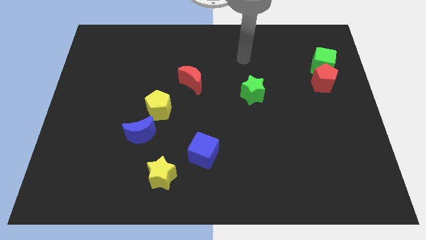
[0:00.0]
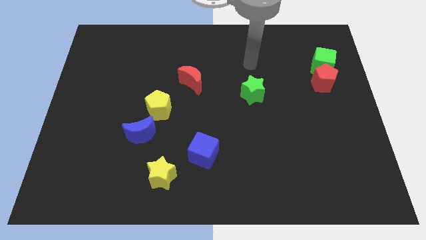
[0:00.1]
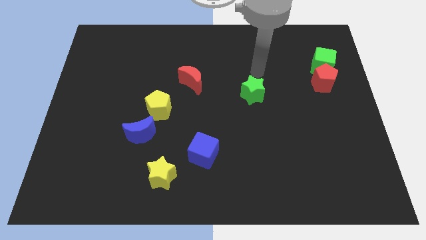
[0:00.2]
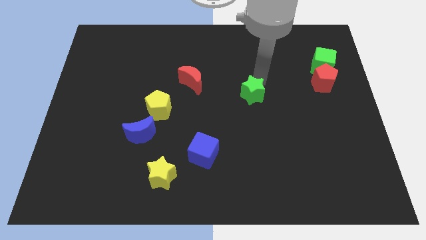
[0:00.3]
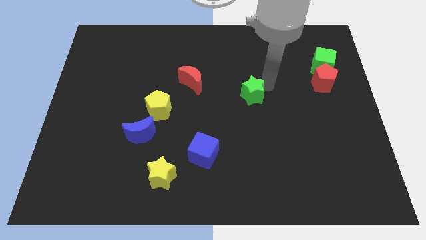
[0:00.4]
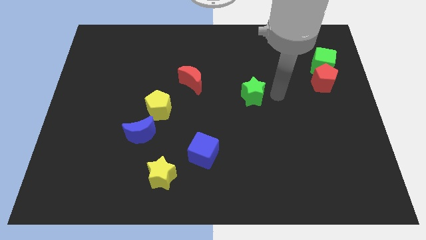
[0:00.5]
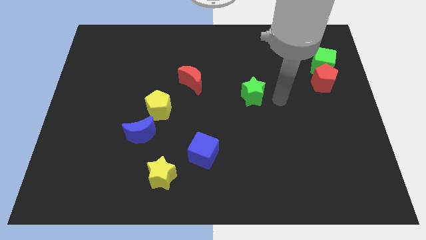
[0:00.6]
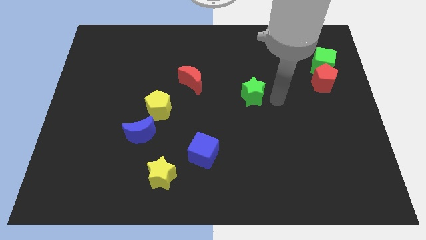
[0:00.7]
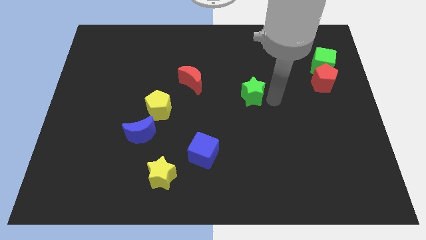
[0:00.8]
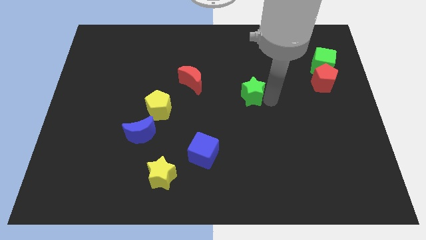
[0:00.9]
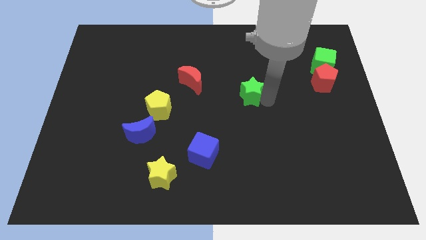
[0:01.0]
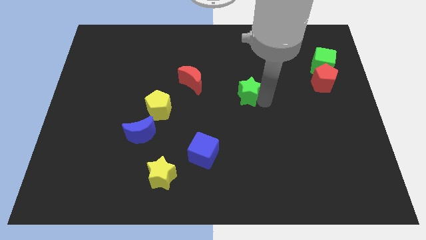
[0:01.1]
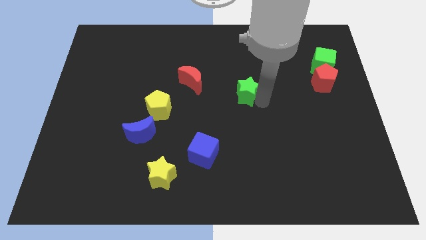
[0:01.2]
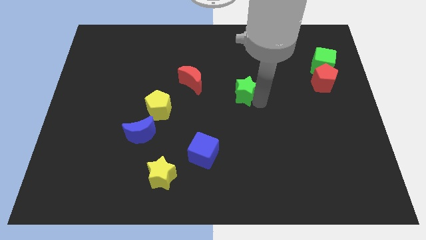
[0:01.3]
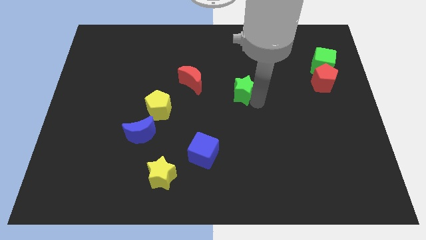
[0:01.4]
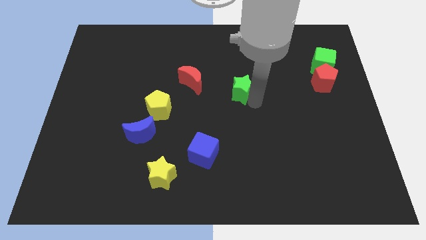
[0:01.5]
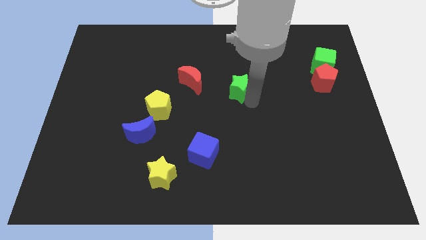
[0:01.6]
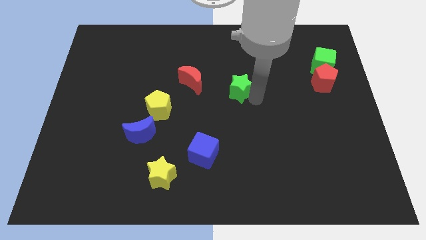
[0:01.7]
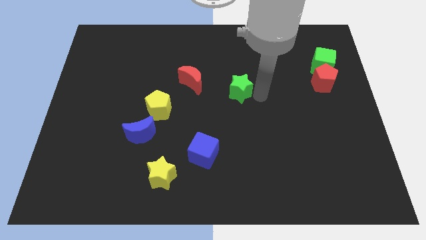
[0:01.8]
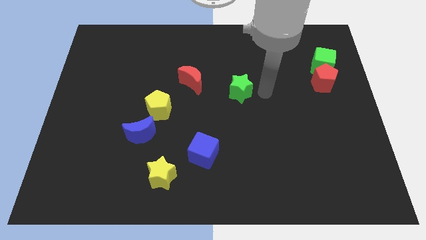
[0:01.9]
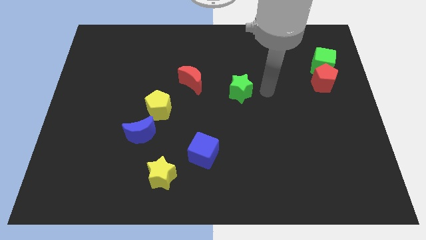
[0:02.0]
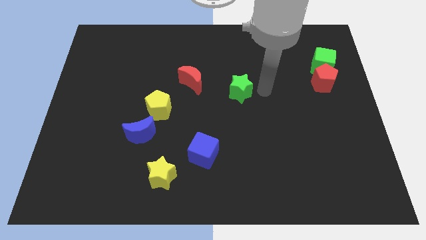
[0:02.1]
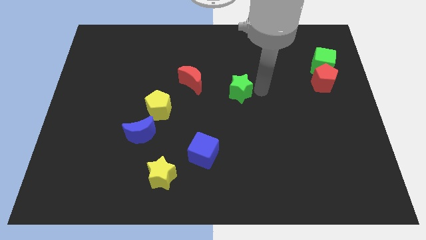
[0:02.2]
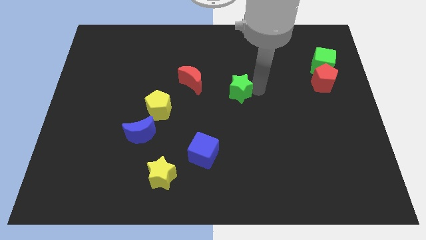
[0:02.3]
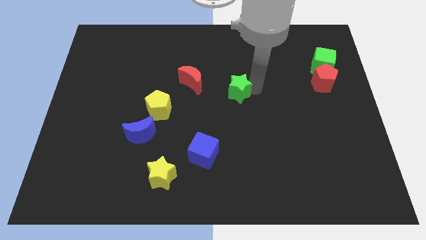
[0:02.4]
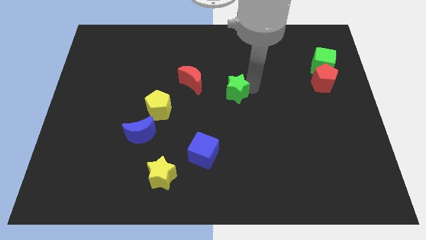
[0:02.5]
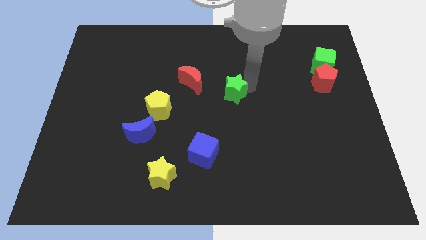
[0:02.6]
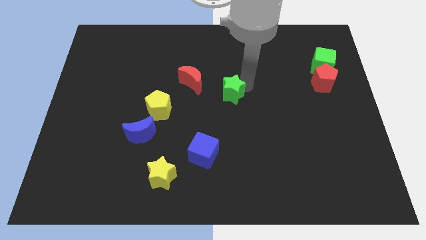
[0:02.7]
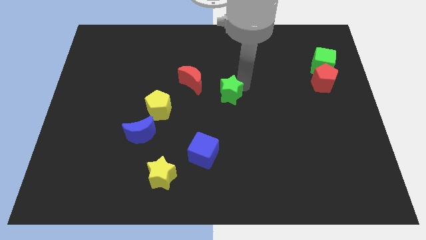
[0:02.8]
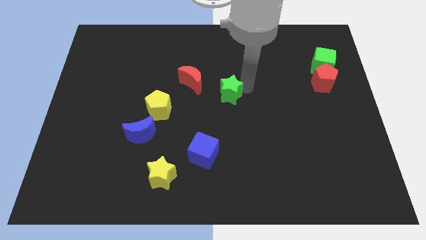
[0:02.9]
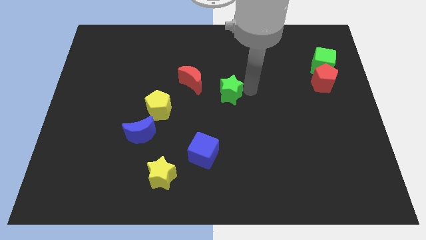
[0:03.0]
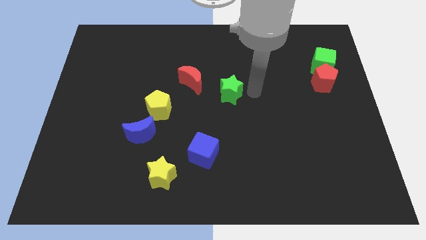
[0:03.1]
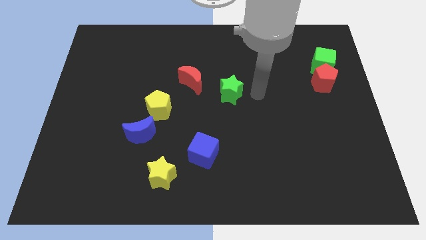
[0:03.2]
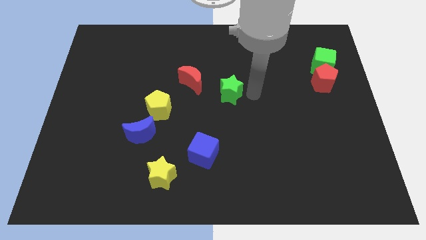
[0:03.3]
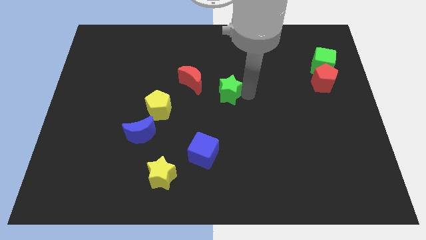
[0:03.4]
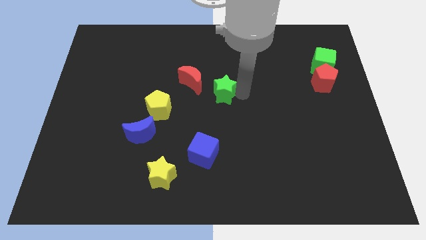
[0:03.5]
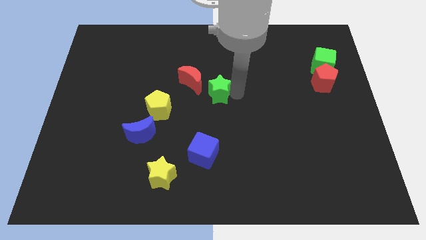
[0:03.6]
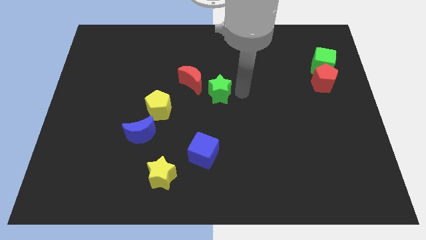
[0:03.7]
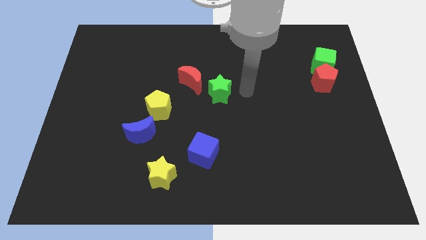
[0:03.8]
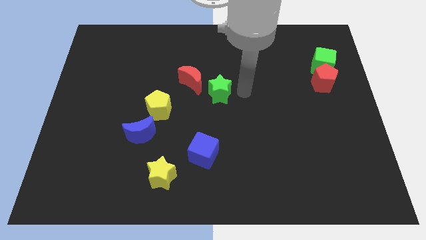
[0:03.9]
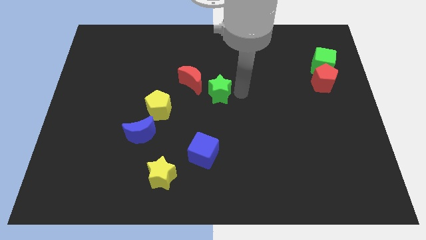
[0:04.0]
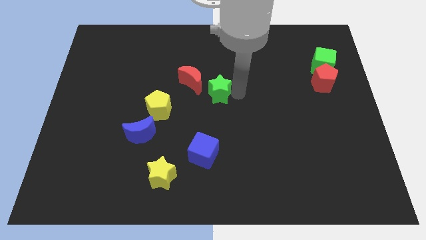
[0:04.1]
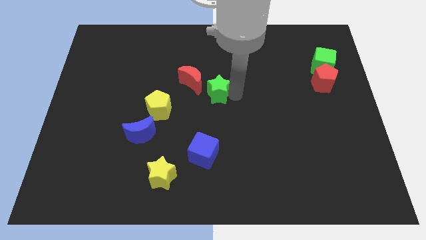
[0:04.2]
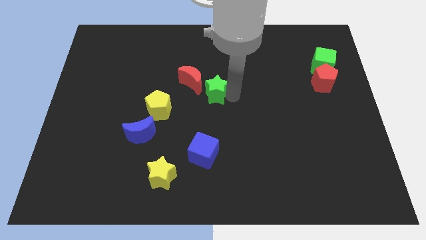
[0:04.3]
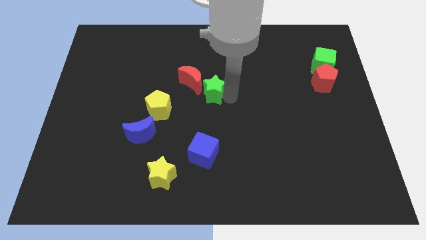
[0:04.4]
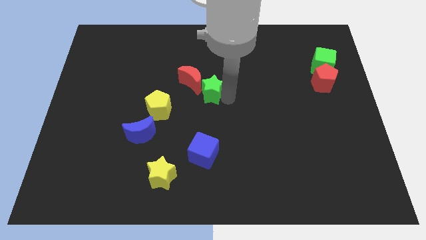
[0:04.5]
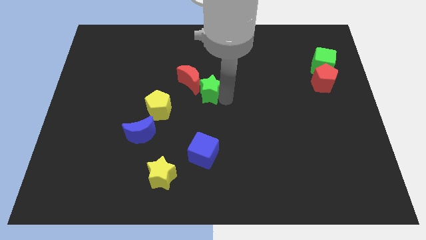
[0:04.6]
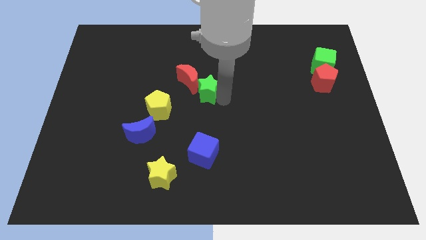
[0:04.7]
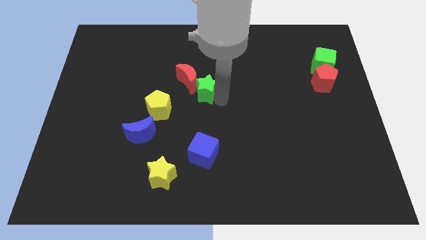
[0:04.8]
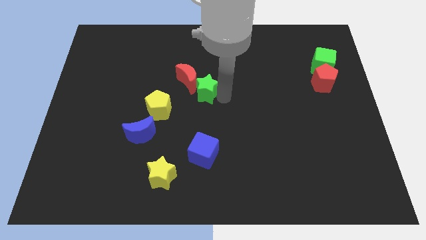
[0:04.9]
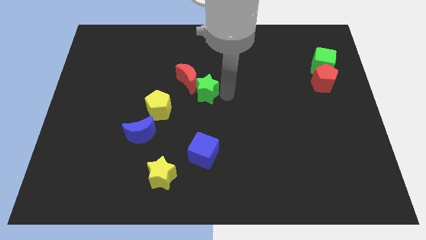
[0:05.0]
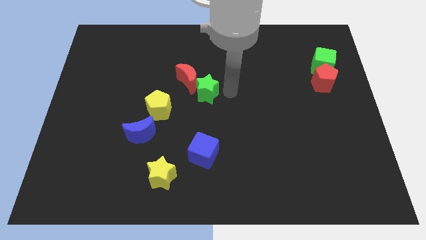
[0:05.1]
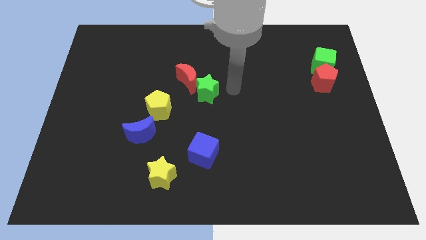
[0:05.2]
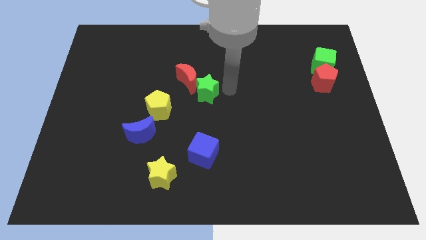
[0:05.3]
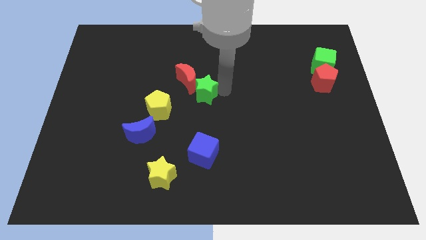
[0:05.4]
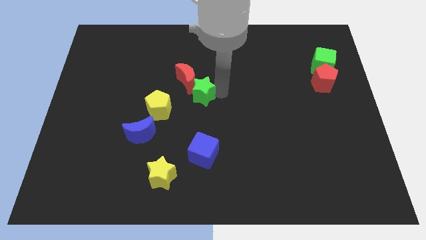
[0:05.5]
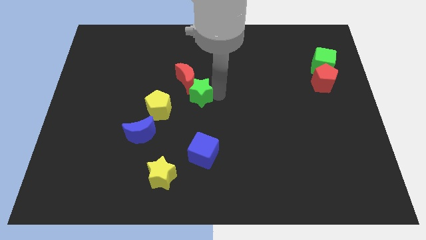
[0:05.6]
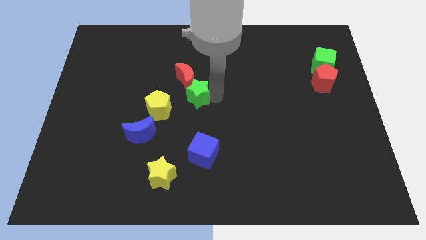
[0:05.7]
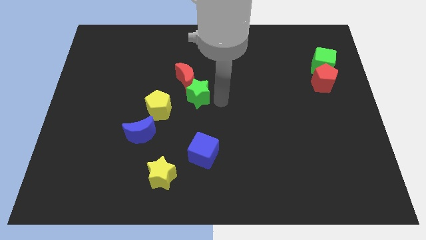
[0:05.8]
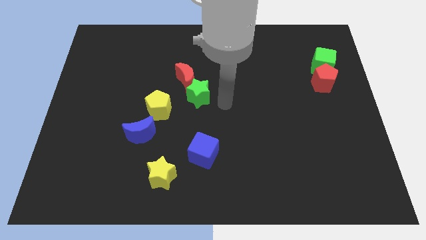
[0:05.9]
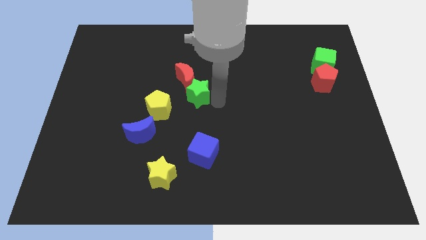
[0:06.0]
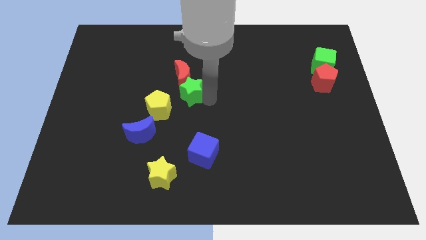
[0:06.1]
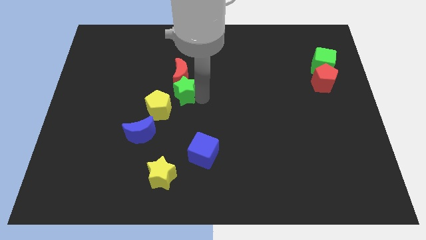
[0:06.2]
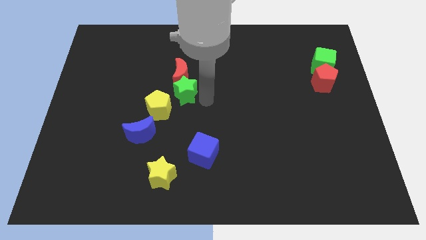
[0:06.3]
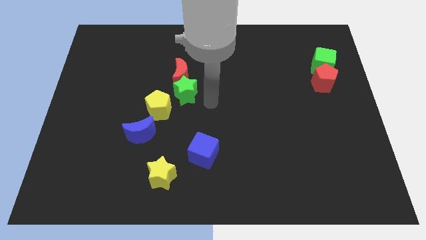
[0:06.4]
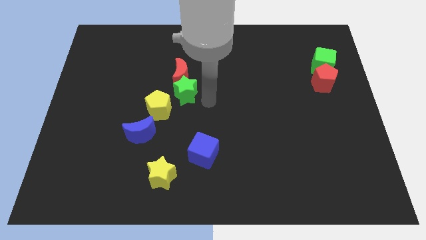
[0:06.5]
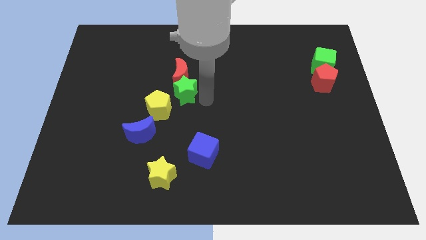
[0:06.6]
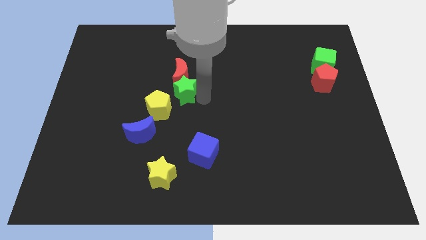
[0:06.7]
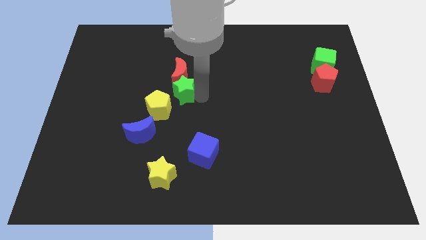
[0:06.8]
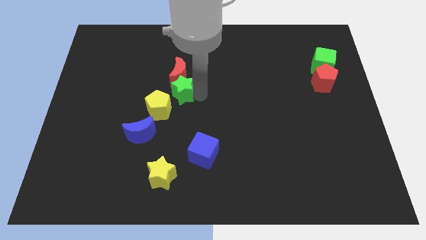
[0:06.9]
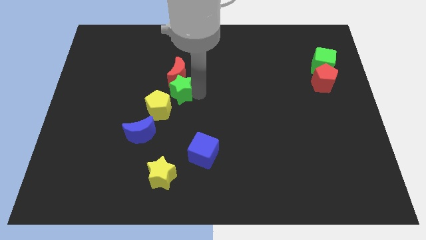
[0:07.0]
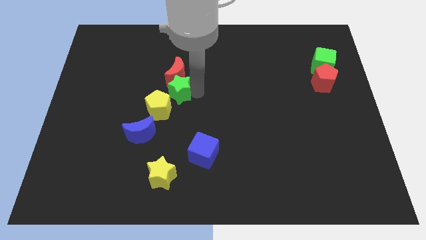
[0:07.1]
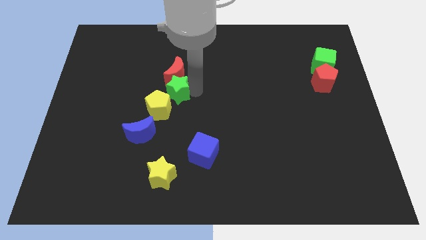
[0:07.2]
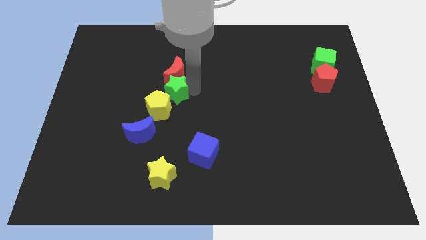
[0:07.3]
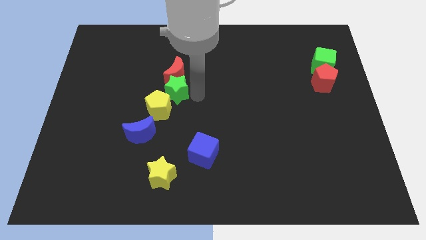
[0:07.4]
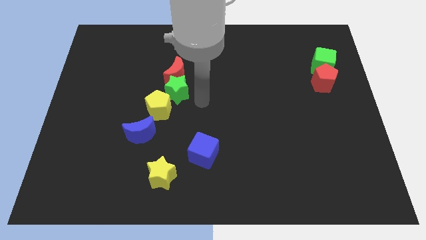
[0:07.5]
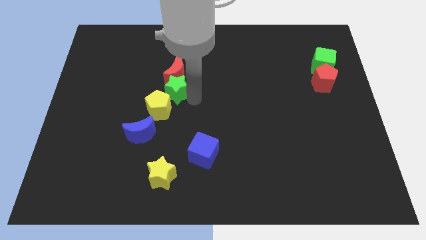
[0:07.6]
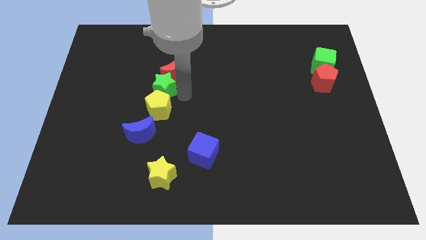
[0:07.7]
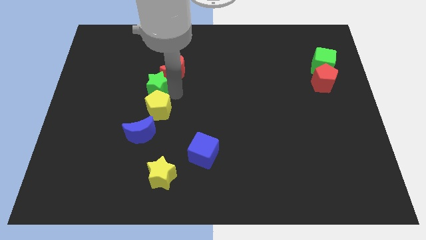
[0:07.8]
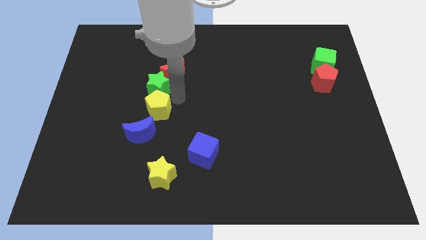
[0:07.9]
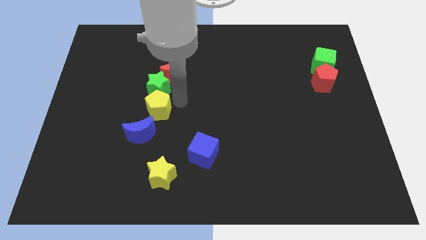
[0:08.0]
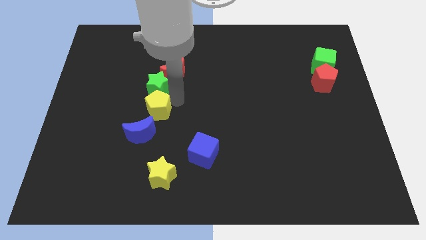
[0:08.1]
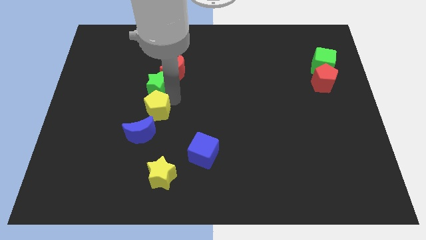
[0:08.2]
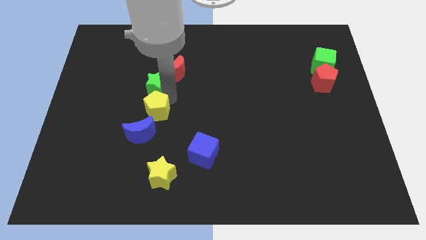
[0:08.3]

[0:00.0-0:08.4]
slide the green star to the left side of the red moon
